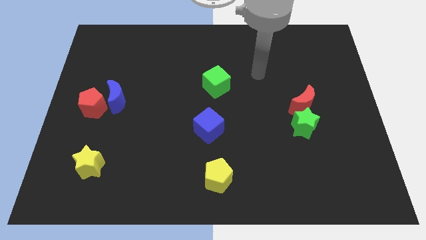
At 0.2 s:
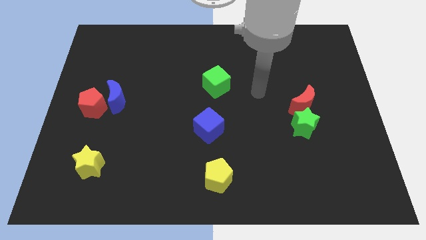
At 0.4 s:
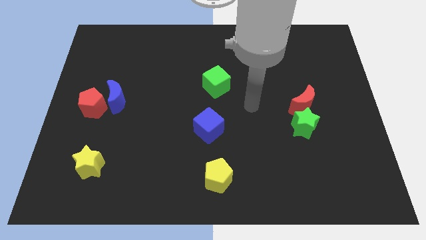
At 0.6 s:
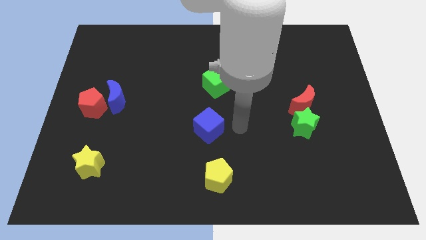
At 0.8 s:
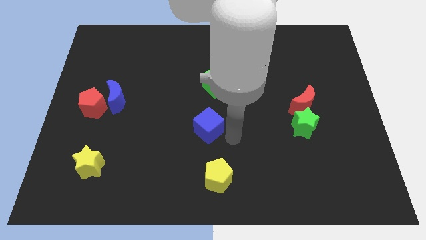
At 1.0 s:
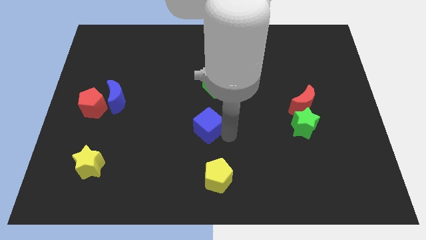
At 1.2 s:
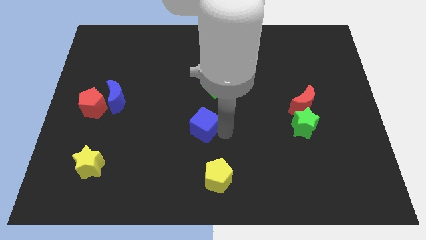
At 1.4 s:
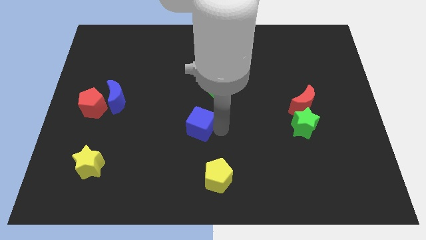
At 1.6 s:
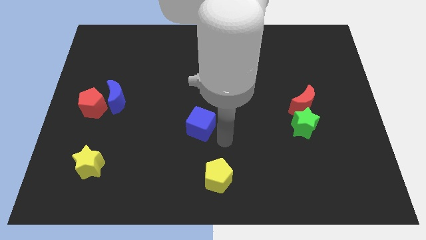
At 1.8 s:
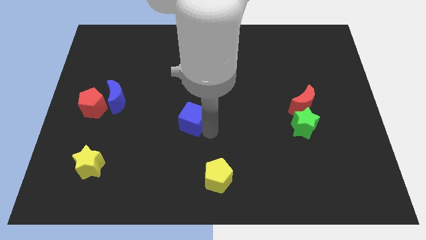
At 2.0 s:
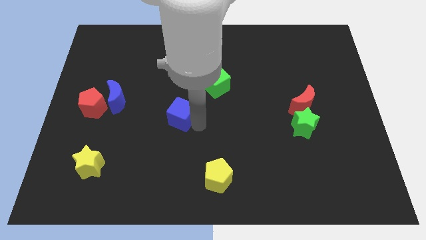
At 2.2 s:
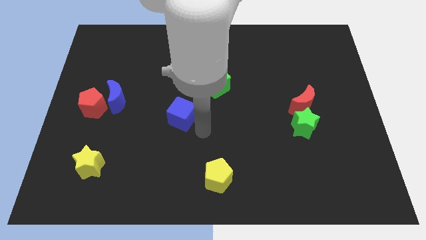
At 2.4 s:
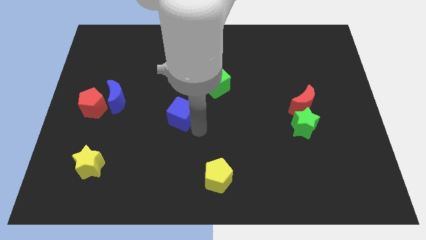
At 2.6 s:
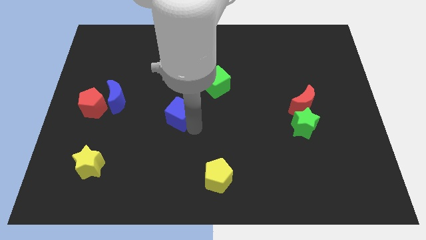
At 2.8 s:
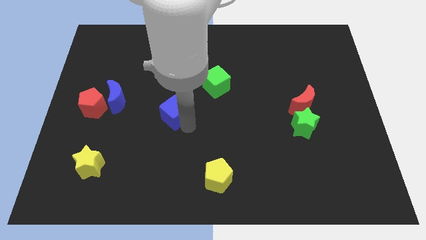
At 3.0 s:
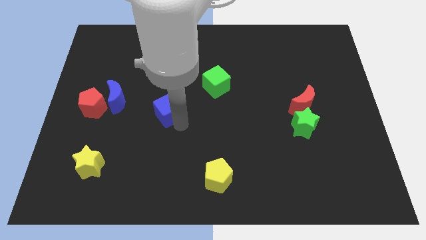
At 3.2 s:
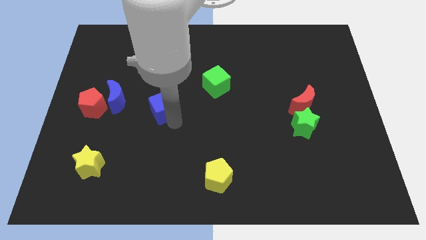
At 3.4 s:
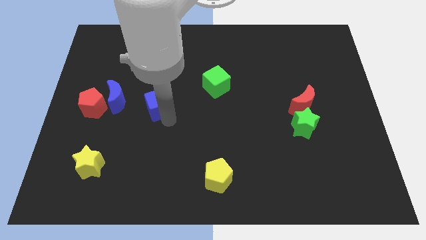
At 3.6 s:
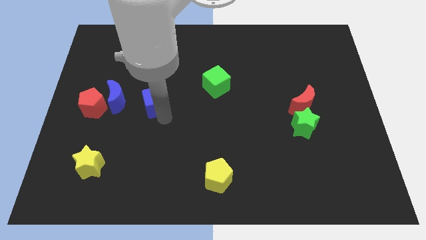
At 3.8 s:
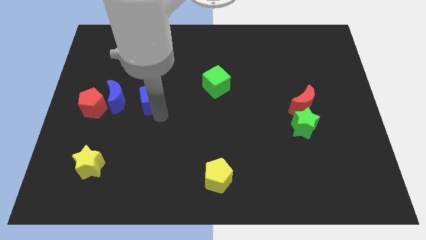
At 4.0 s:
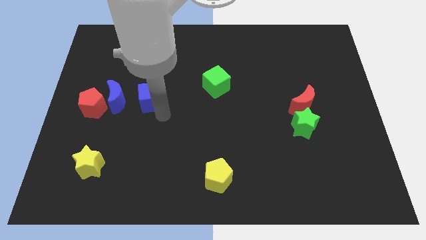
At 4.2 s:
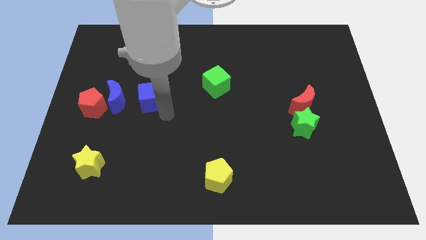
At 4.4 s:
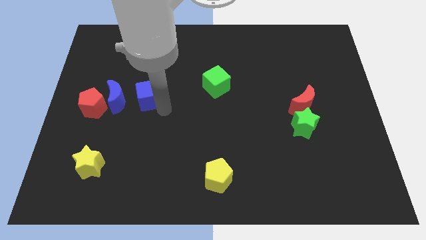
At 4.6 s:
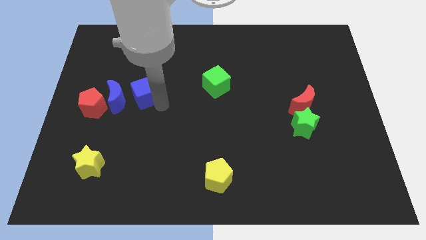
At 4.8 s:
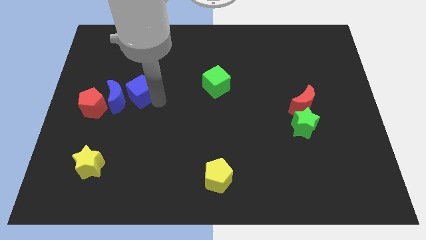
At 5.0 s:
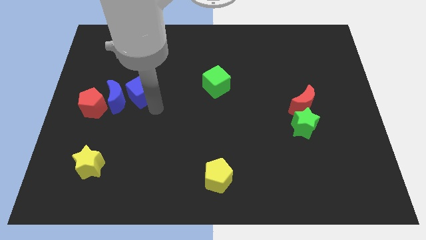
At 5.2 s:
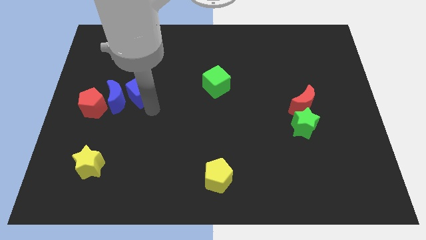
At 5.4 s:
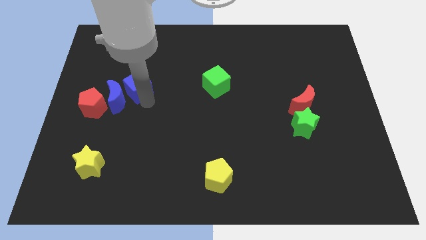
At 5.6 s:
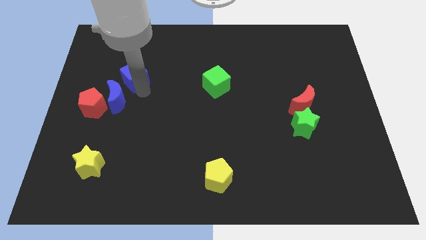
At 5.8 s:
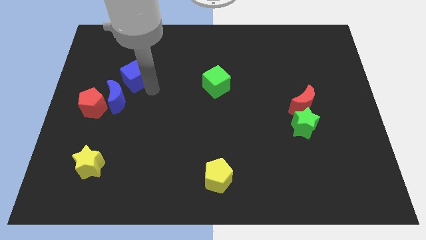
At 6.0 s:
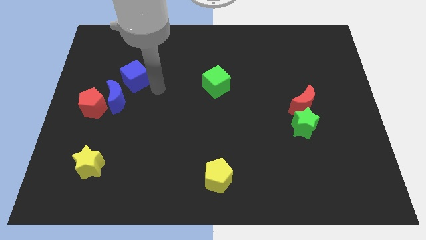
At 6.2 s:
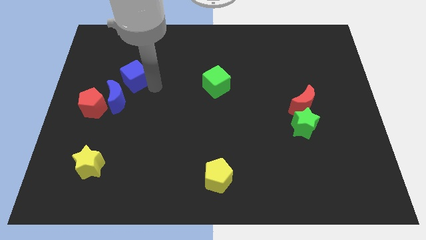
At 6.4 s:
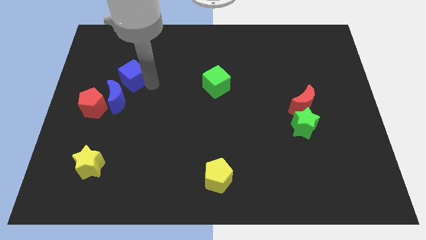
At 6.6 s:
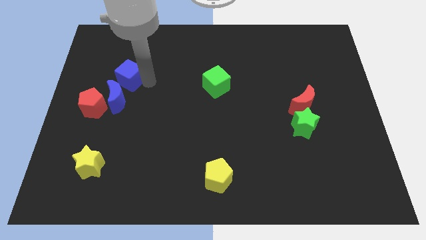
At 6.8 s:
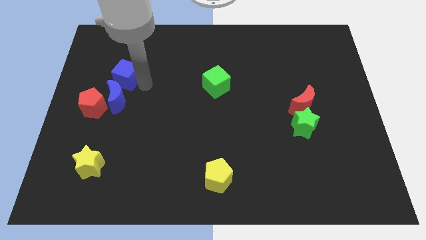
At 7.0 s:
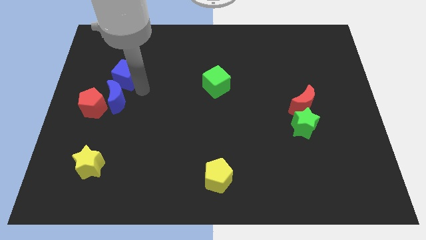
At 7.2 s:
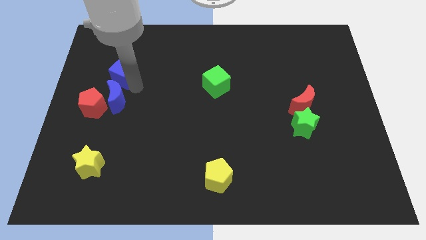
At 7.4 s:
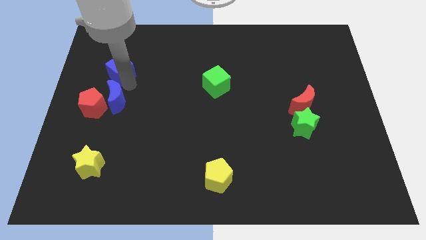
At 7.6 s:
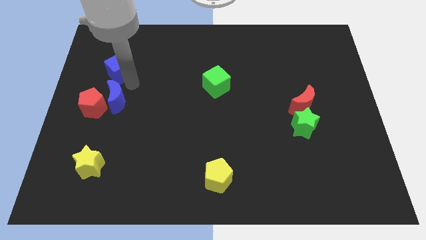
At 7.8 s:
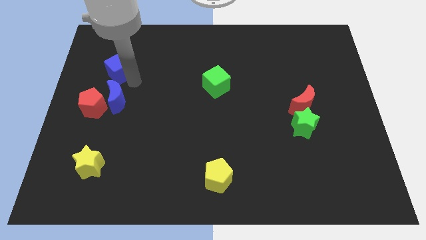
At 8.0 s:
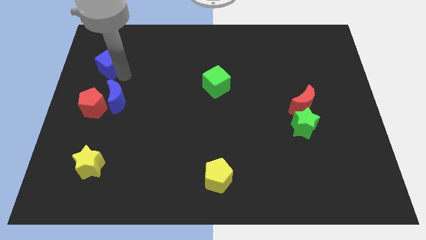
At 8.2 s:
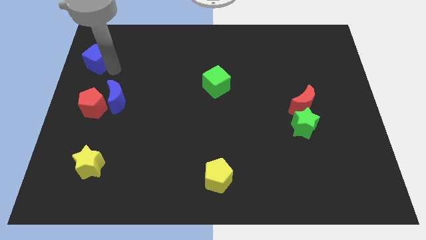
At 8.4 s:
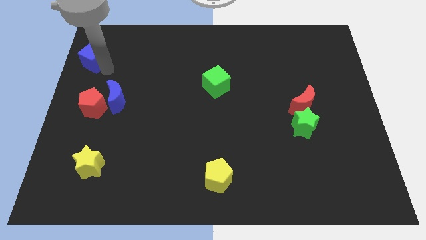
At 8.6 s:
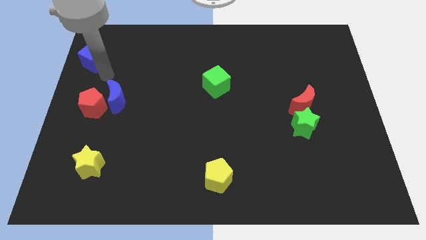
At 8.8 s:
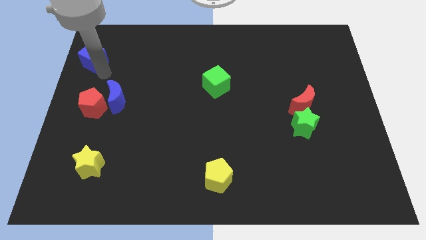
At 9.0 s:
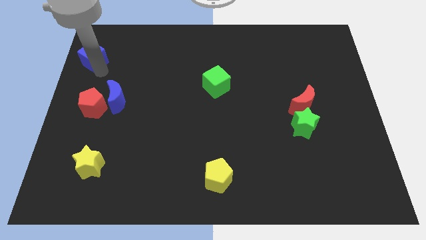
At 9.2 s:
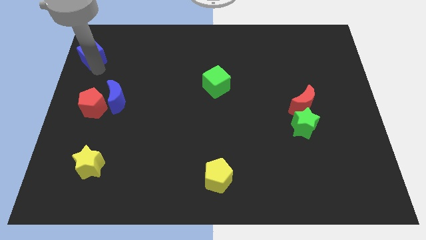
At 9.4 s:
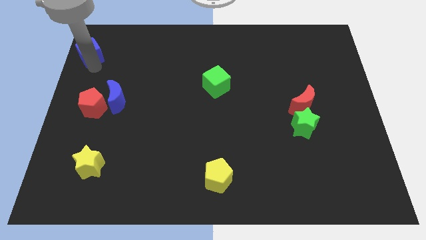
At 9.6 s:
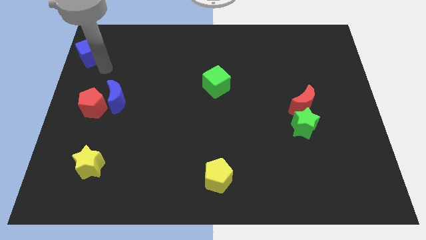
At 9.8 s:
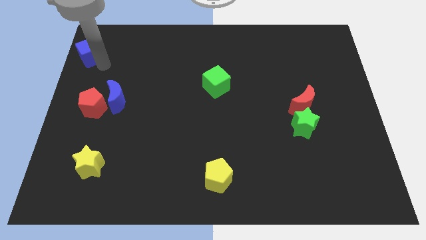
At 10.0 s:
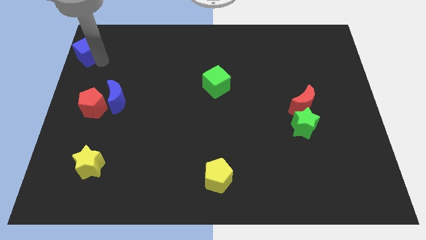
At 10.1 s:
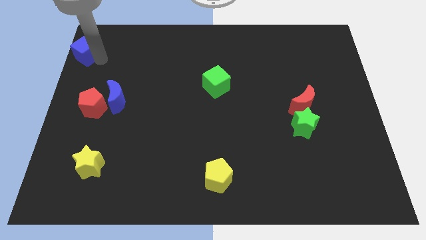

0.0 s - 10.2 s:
slide the blue cube to the upper left corner

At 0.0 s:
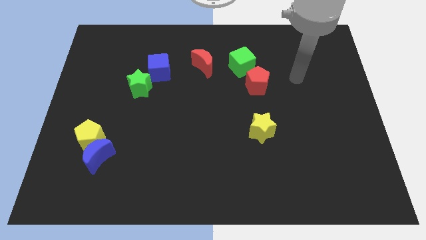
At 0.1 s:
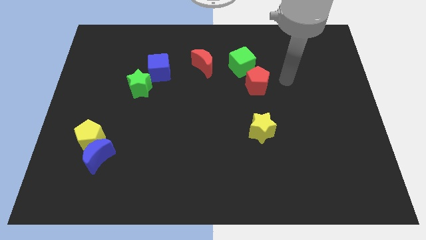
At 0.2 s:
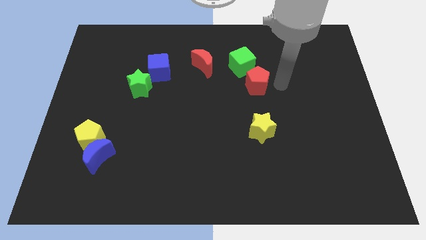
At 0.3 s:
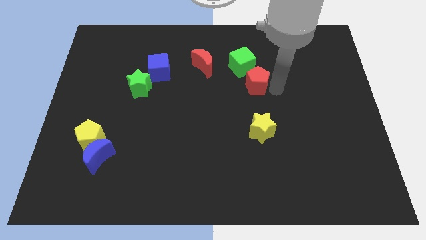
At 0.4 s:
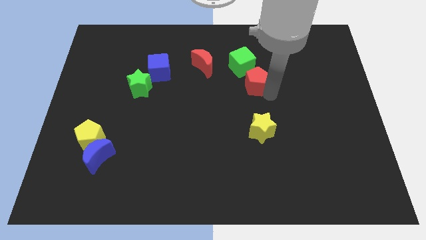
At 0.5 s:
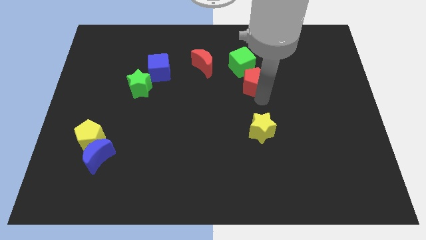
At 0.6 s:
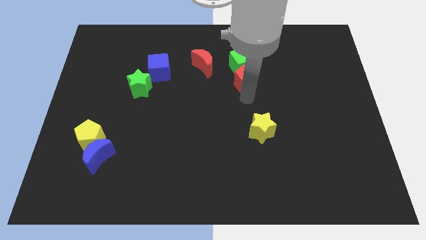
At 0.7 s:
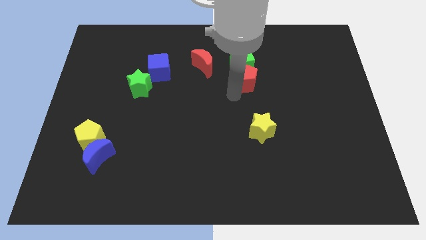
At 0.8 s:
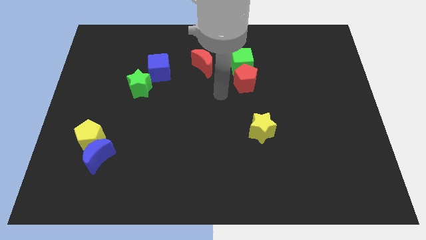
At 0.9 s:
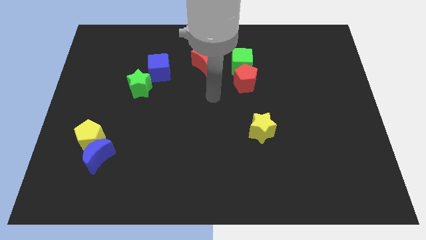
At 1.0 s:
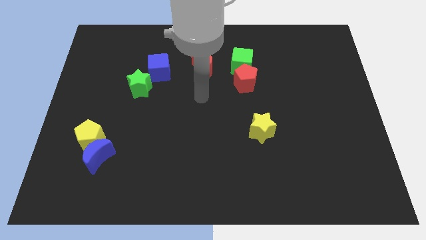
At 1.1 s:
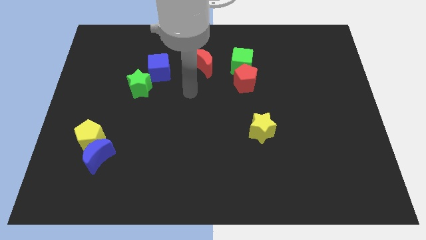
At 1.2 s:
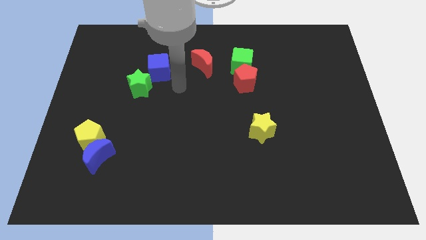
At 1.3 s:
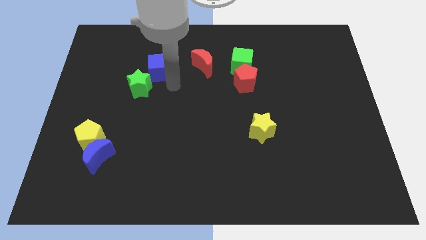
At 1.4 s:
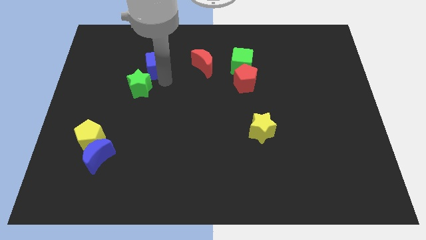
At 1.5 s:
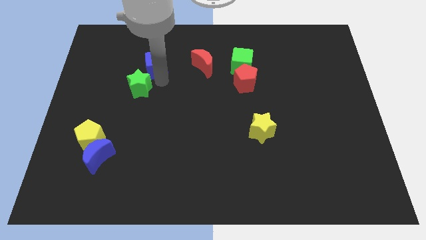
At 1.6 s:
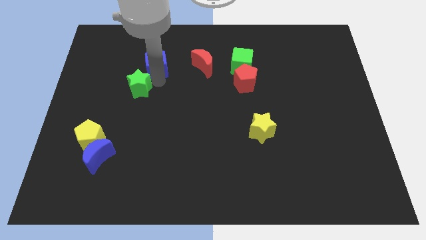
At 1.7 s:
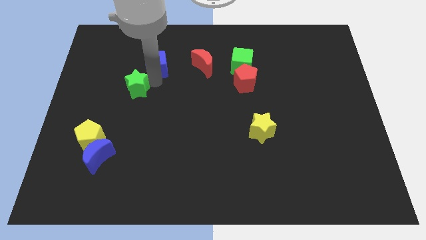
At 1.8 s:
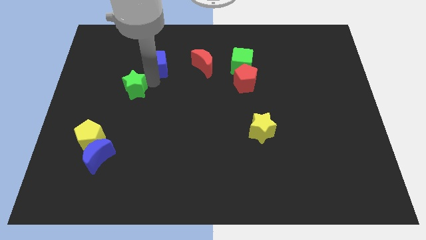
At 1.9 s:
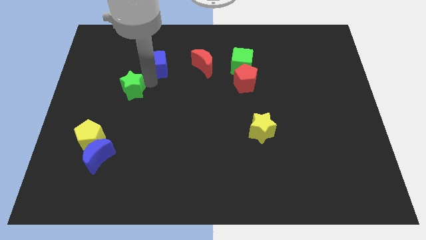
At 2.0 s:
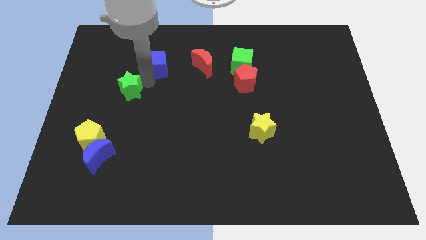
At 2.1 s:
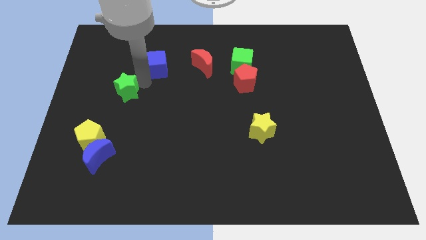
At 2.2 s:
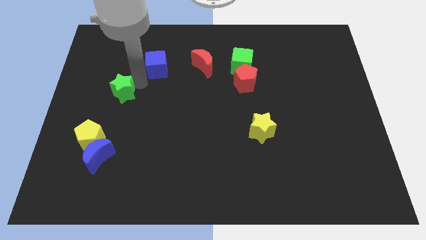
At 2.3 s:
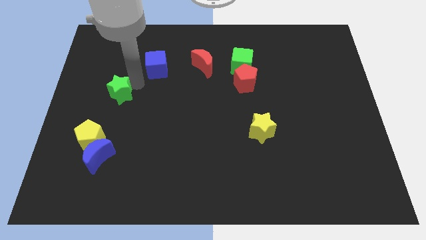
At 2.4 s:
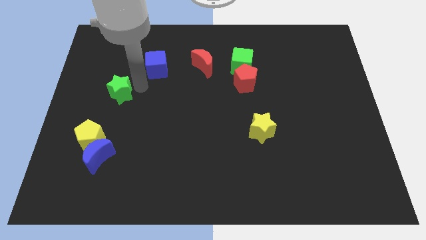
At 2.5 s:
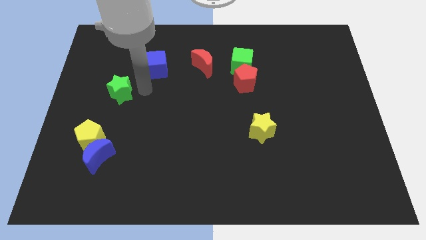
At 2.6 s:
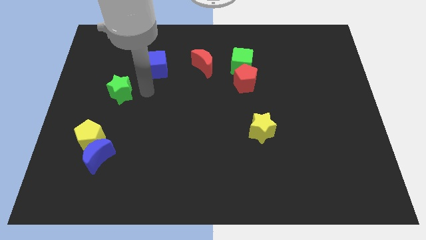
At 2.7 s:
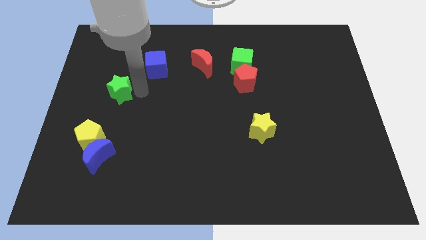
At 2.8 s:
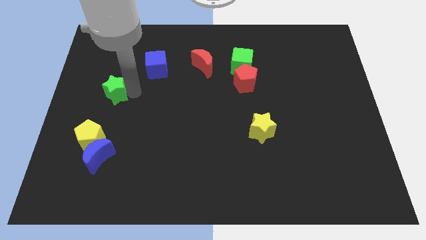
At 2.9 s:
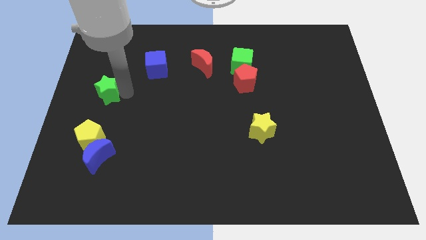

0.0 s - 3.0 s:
push the green star to the center left
